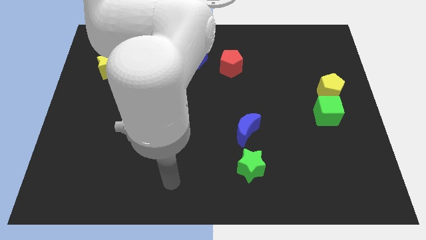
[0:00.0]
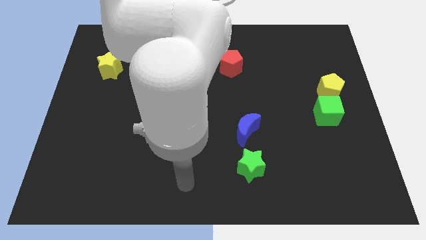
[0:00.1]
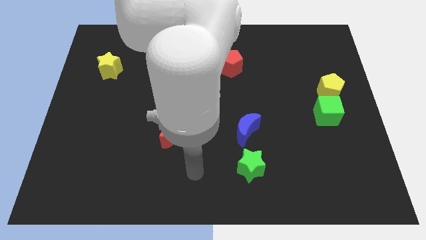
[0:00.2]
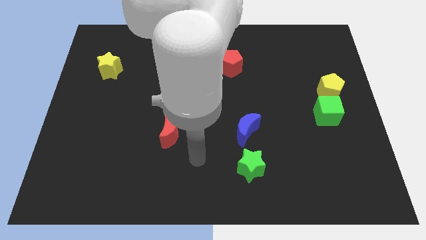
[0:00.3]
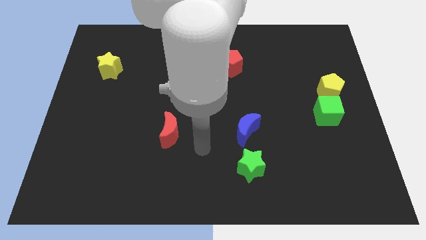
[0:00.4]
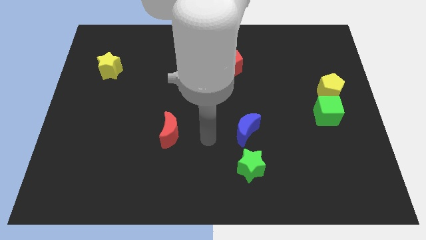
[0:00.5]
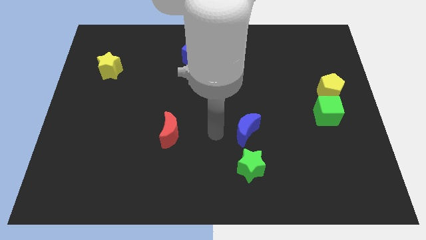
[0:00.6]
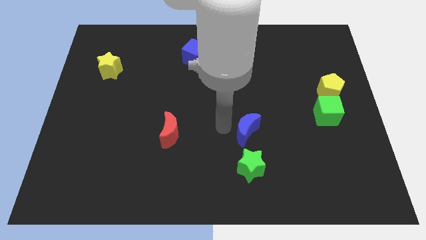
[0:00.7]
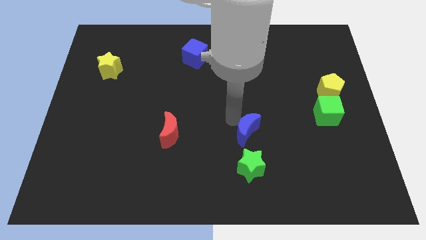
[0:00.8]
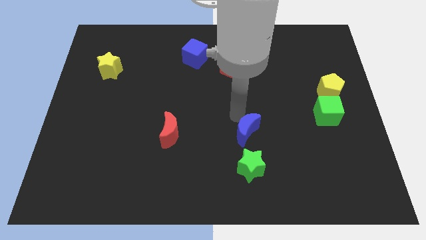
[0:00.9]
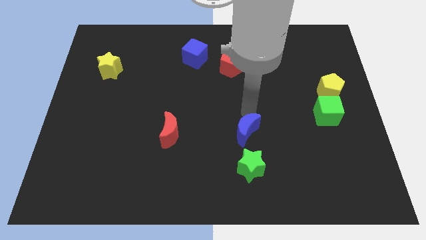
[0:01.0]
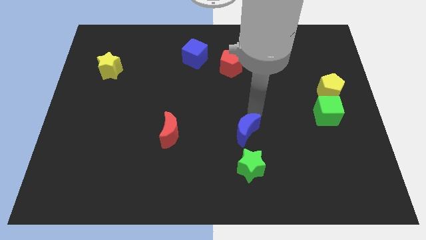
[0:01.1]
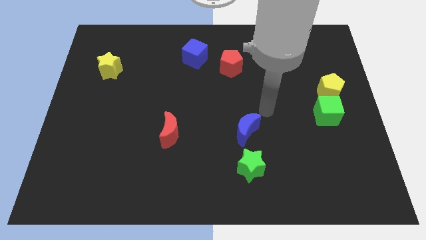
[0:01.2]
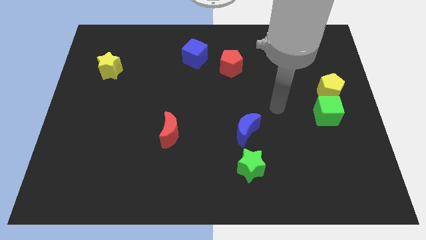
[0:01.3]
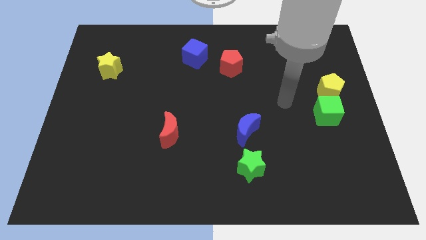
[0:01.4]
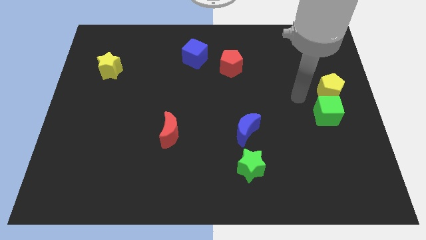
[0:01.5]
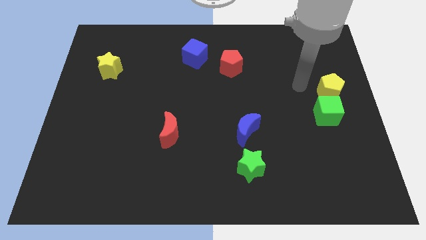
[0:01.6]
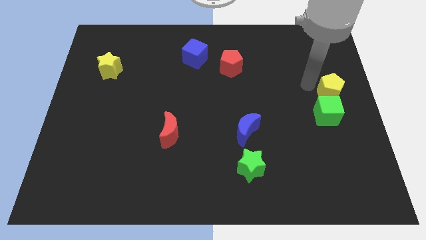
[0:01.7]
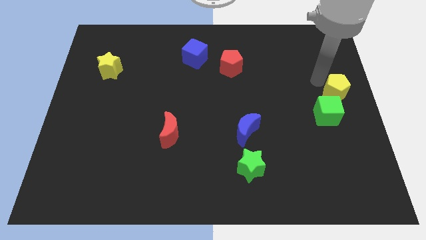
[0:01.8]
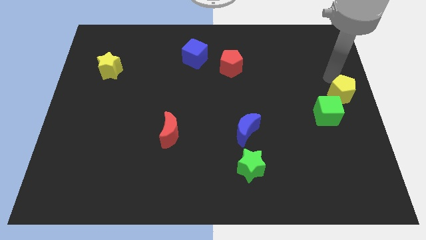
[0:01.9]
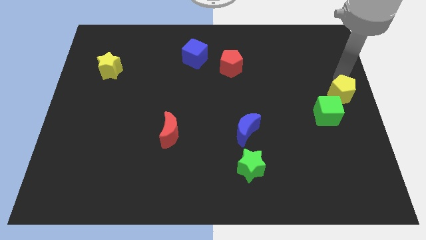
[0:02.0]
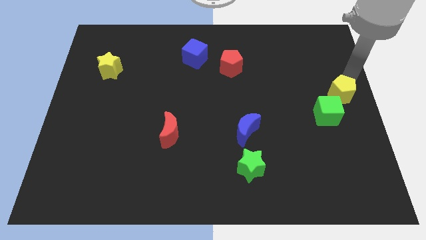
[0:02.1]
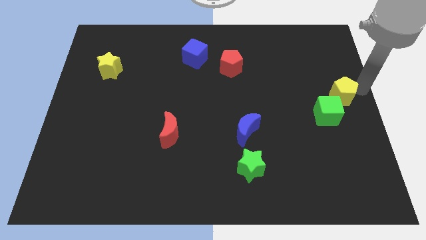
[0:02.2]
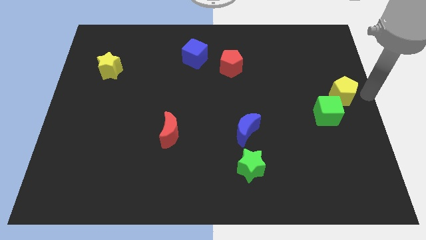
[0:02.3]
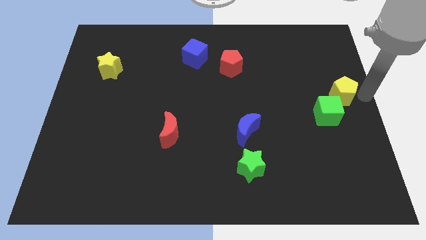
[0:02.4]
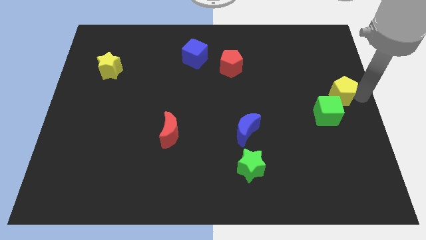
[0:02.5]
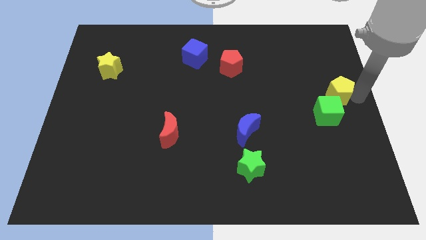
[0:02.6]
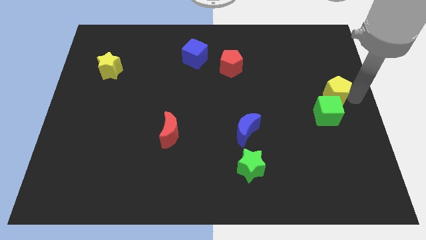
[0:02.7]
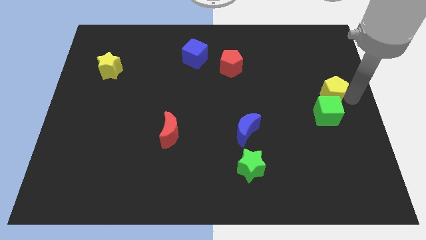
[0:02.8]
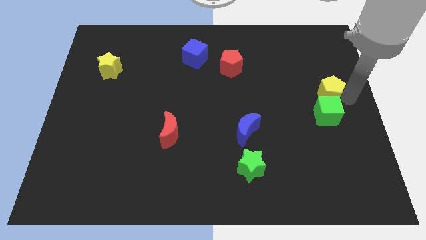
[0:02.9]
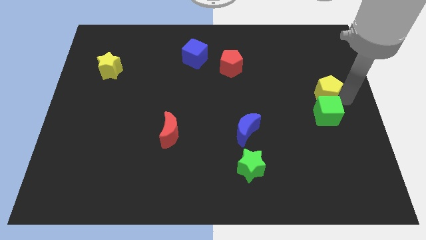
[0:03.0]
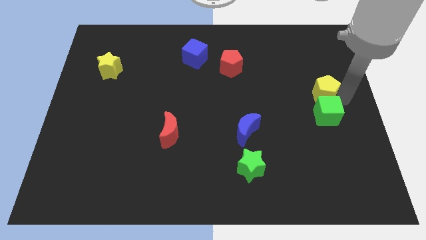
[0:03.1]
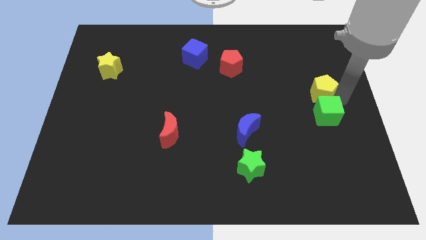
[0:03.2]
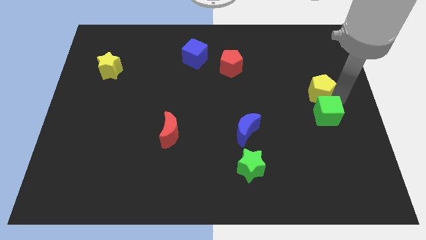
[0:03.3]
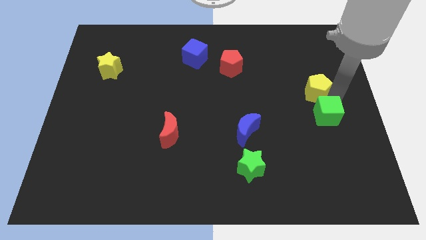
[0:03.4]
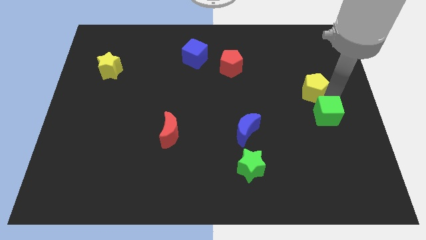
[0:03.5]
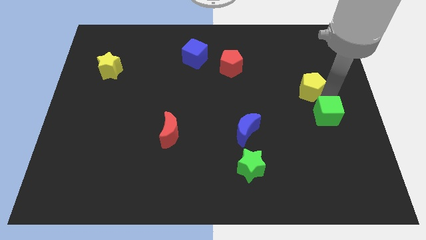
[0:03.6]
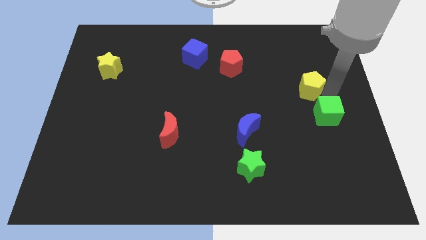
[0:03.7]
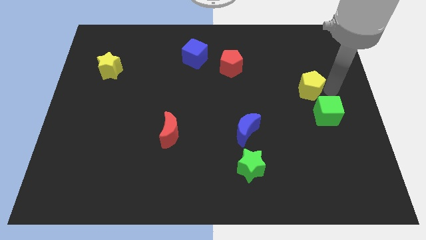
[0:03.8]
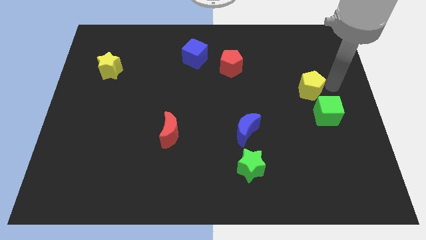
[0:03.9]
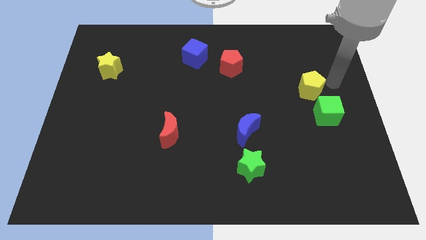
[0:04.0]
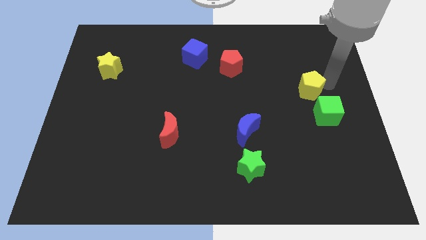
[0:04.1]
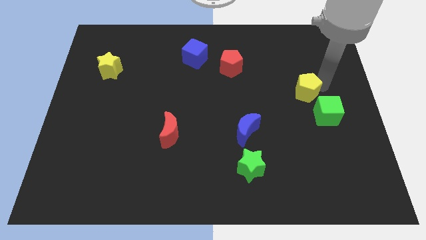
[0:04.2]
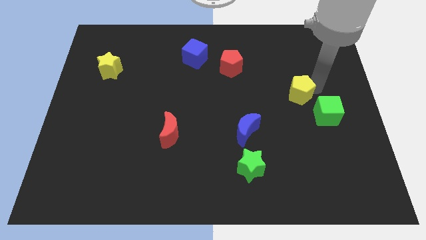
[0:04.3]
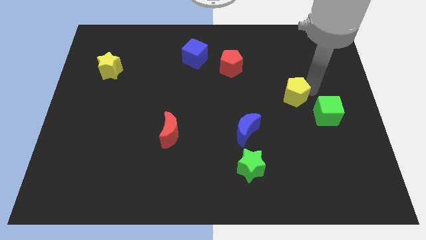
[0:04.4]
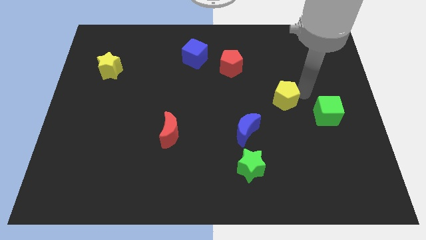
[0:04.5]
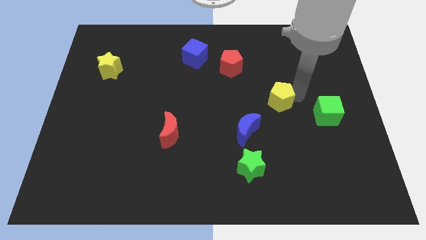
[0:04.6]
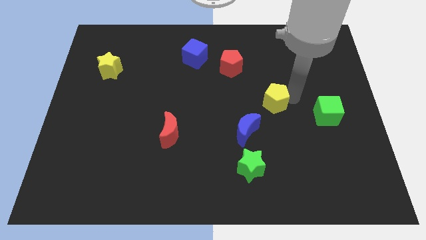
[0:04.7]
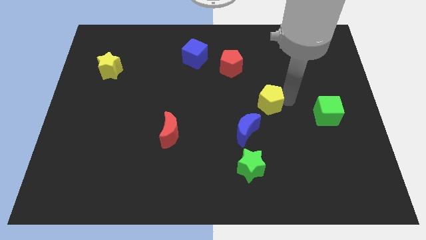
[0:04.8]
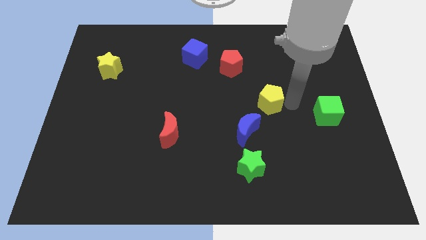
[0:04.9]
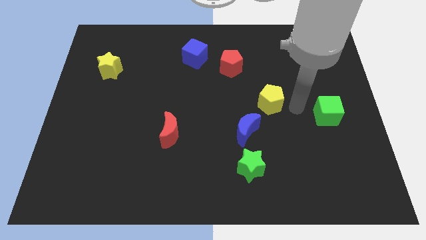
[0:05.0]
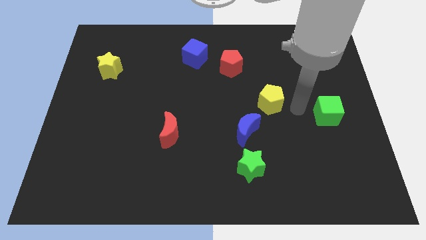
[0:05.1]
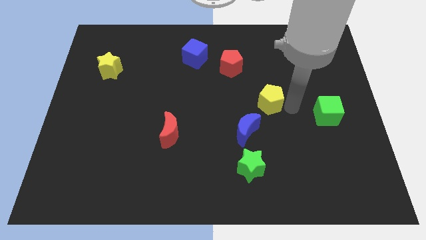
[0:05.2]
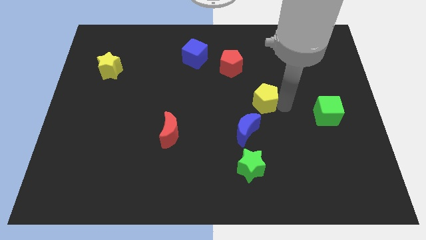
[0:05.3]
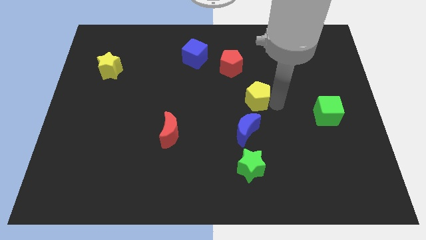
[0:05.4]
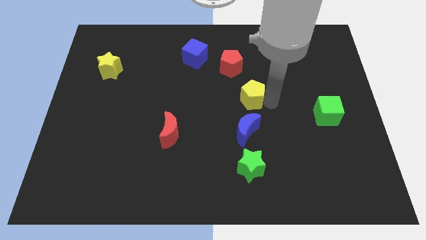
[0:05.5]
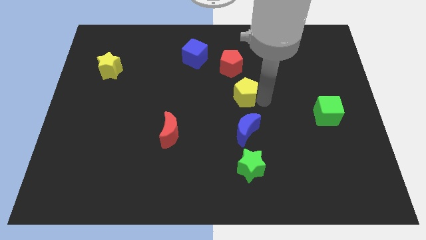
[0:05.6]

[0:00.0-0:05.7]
push the yellow pentagon left

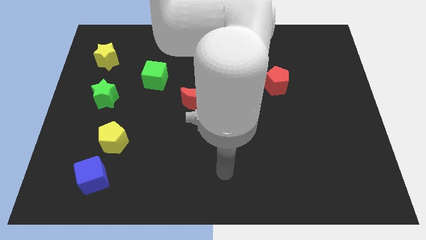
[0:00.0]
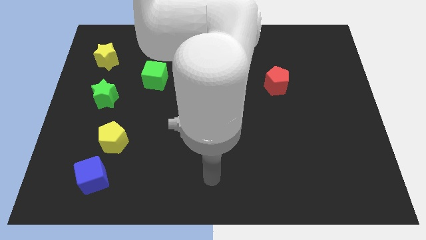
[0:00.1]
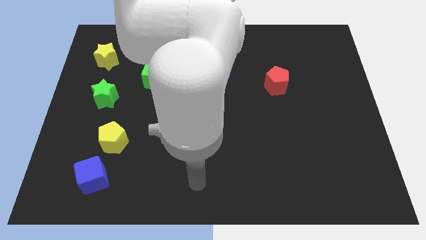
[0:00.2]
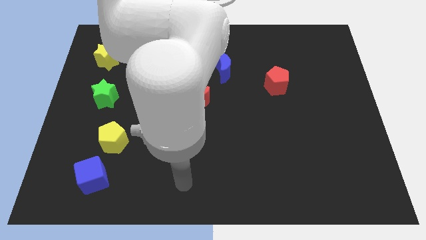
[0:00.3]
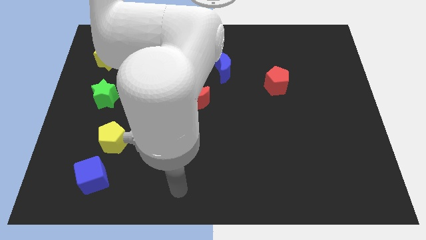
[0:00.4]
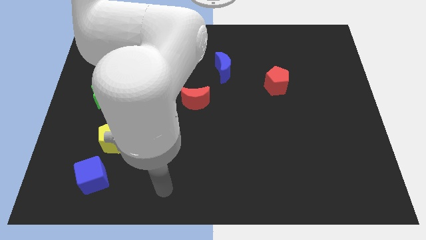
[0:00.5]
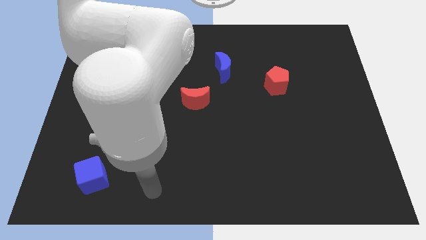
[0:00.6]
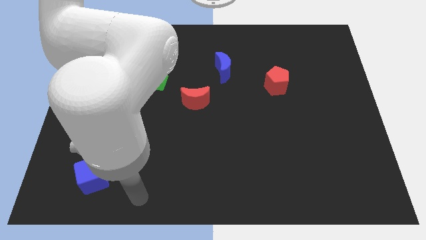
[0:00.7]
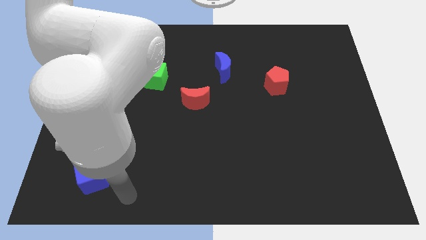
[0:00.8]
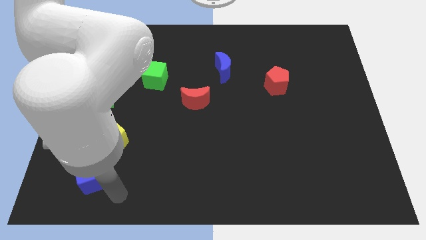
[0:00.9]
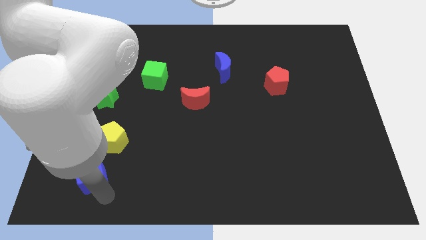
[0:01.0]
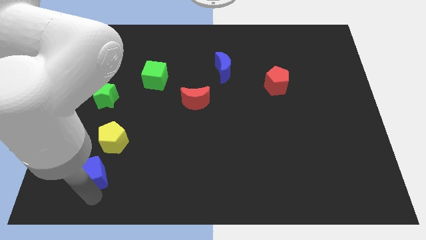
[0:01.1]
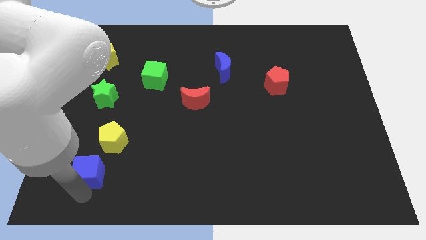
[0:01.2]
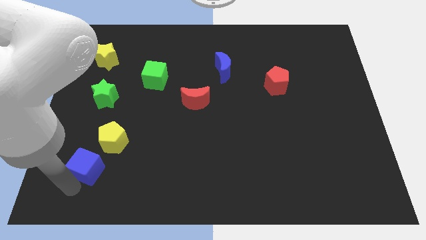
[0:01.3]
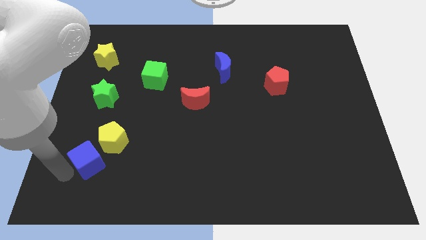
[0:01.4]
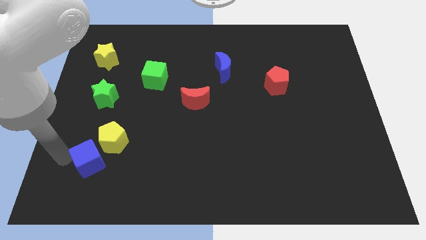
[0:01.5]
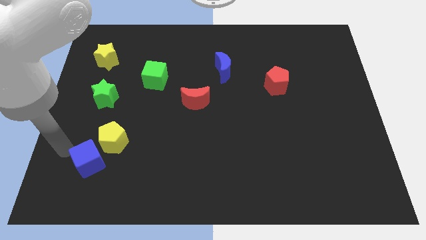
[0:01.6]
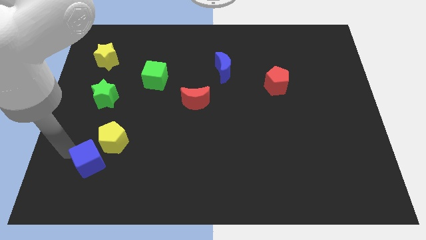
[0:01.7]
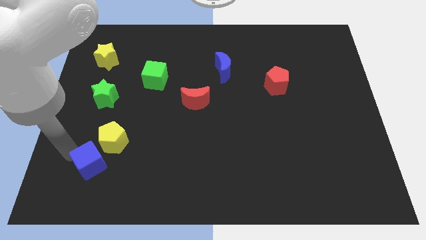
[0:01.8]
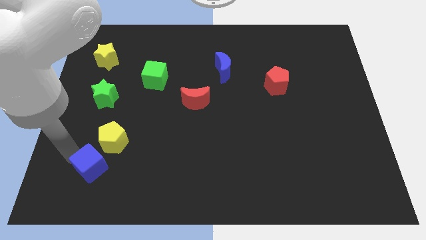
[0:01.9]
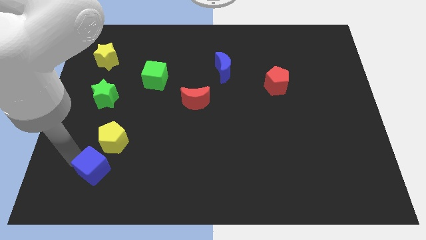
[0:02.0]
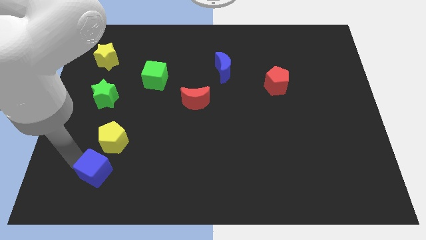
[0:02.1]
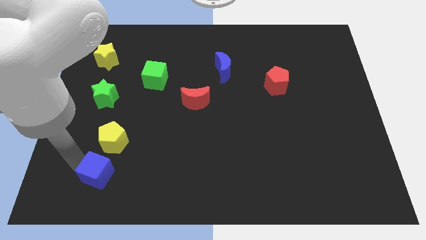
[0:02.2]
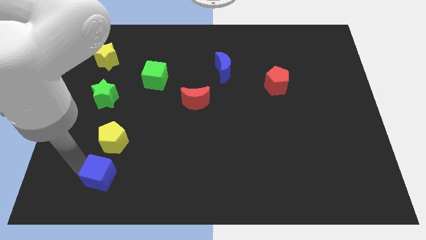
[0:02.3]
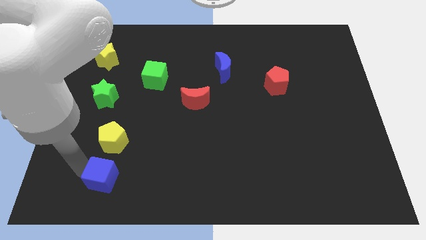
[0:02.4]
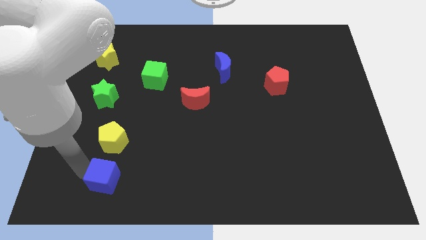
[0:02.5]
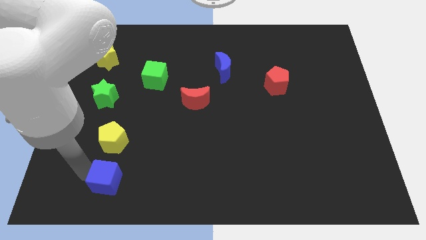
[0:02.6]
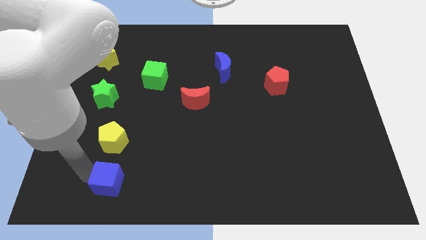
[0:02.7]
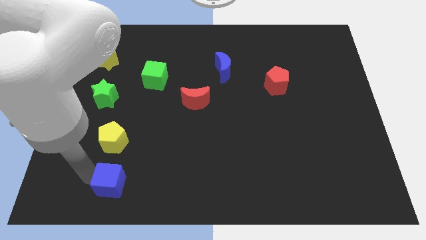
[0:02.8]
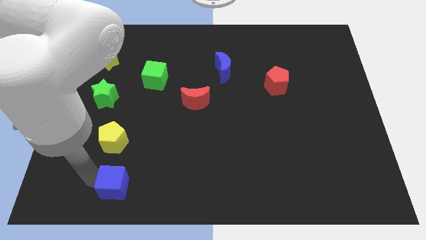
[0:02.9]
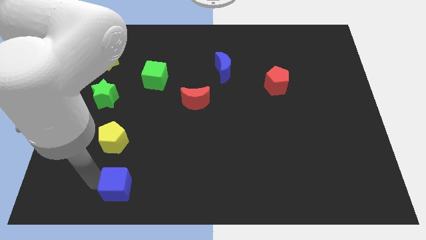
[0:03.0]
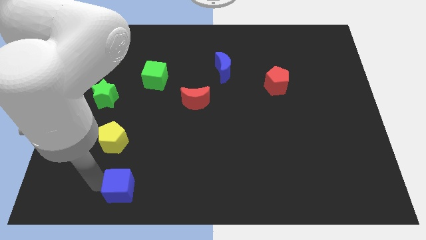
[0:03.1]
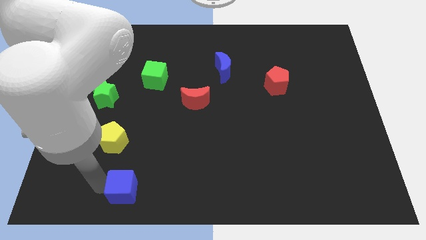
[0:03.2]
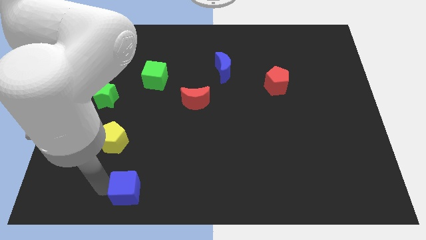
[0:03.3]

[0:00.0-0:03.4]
move the blue cube right a bit
